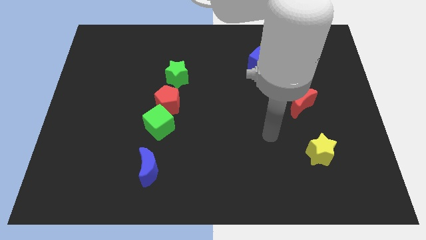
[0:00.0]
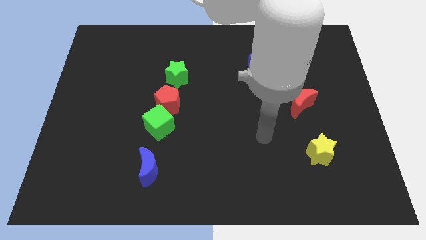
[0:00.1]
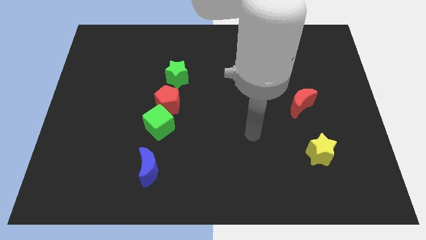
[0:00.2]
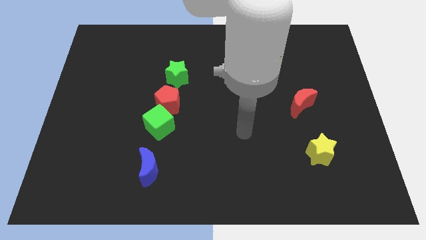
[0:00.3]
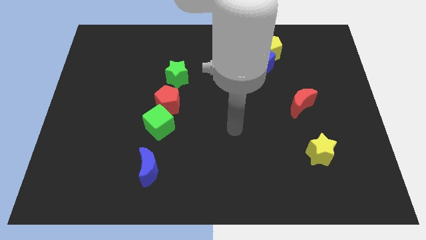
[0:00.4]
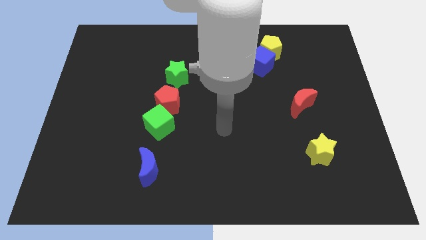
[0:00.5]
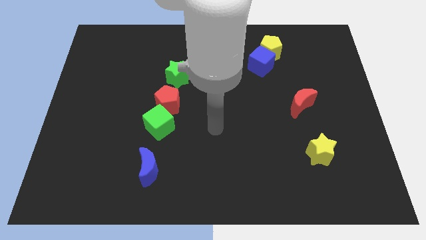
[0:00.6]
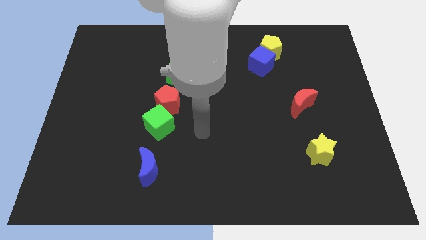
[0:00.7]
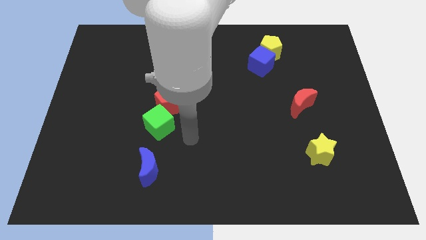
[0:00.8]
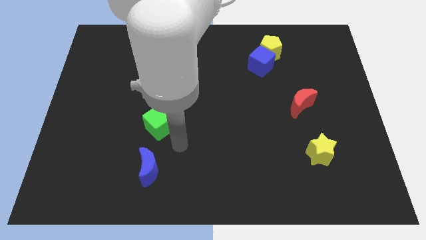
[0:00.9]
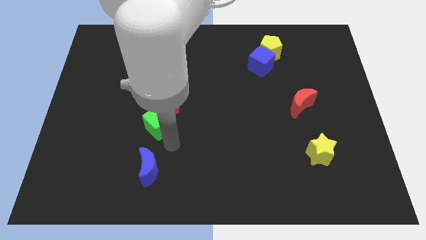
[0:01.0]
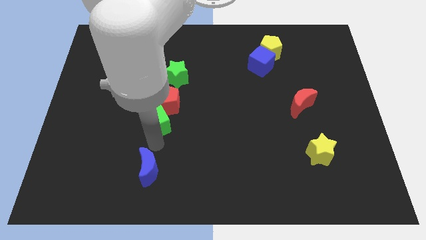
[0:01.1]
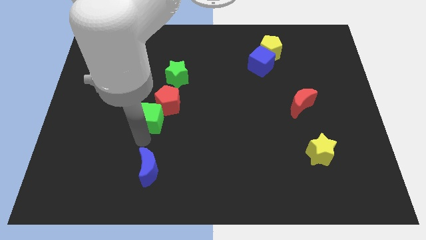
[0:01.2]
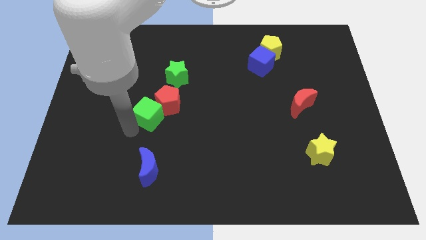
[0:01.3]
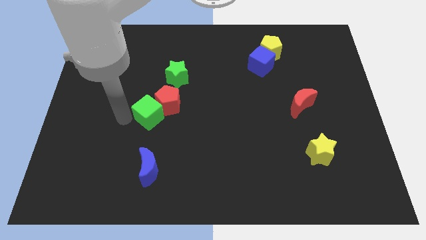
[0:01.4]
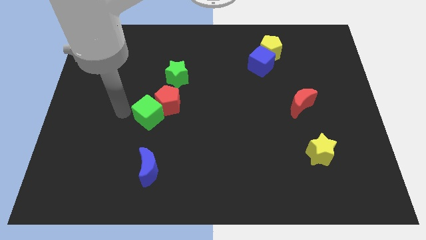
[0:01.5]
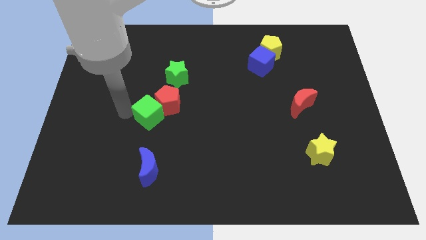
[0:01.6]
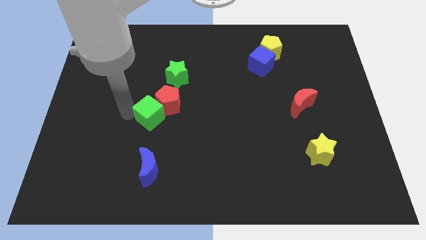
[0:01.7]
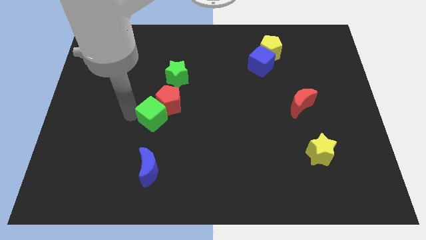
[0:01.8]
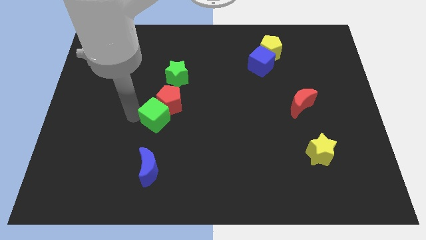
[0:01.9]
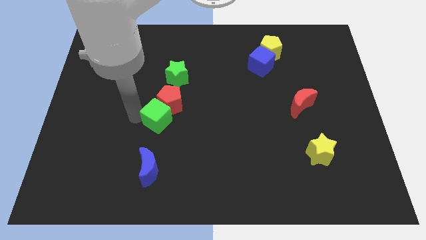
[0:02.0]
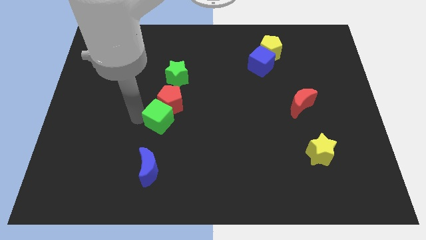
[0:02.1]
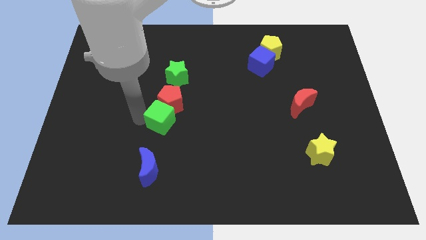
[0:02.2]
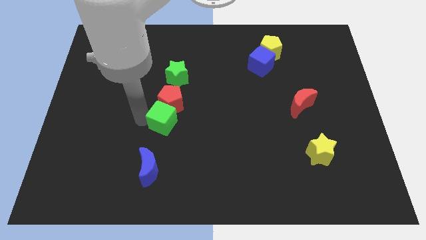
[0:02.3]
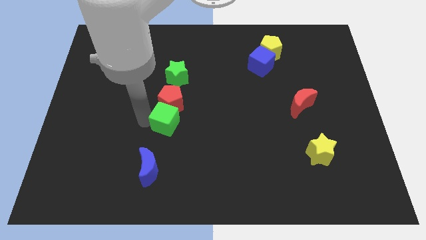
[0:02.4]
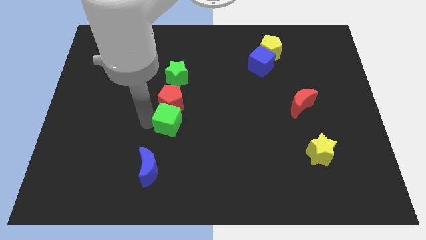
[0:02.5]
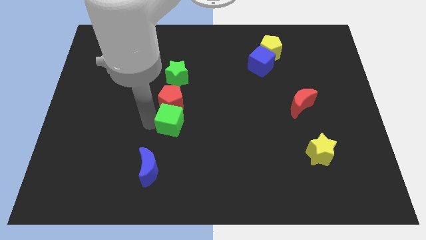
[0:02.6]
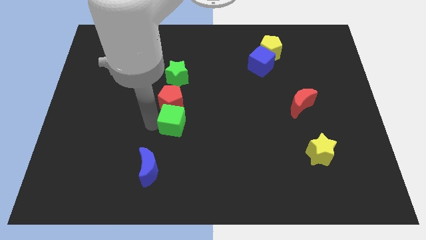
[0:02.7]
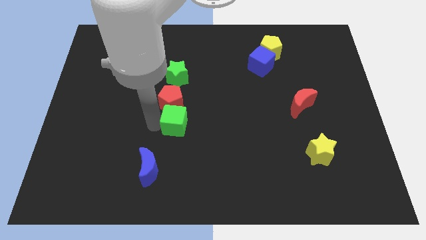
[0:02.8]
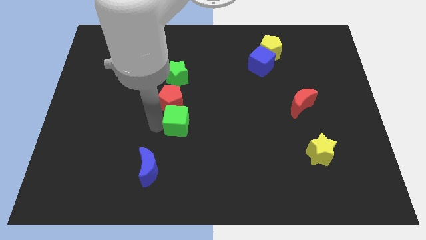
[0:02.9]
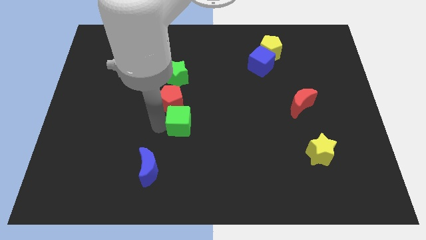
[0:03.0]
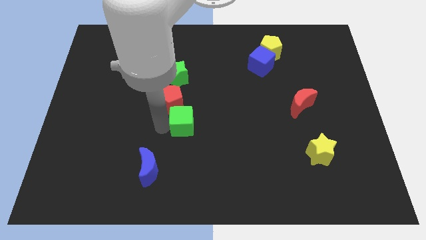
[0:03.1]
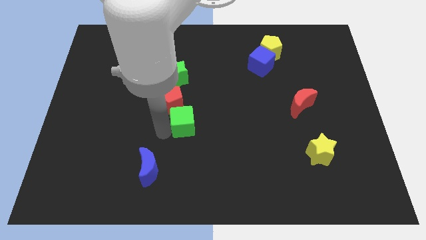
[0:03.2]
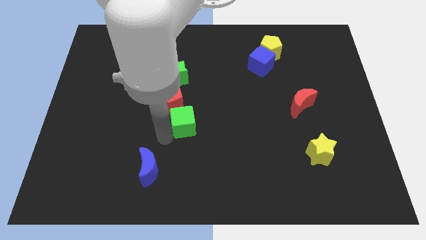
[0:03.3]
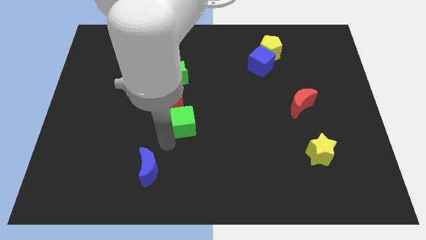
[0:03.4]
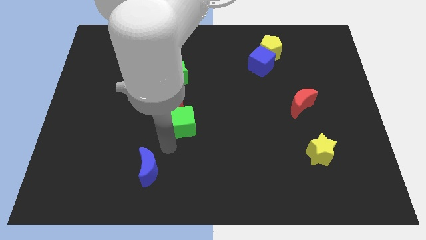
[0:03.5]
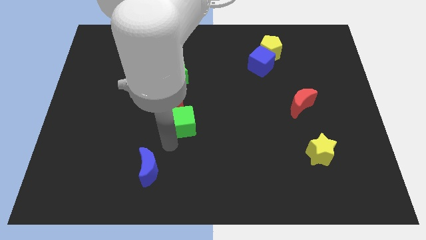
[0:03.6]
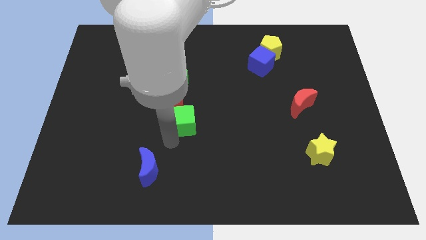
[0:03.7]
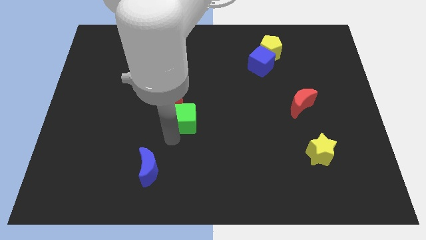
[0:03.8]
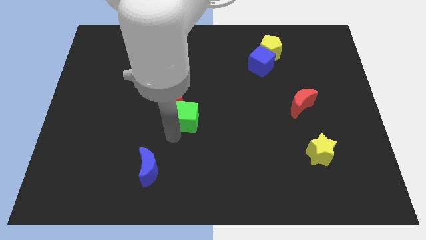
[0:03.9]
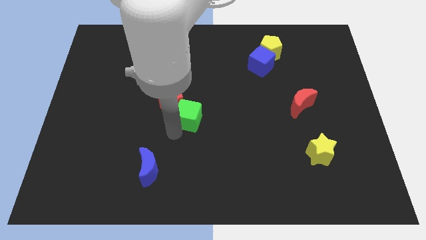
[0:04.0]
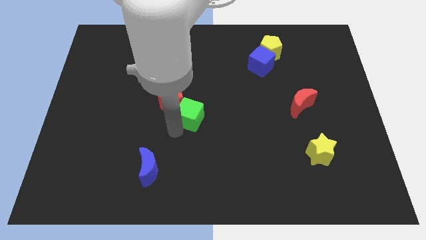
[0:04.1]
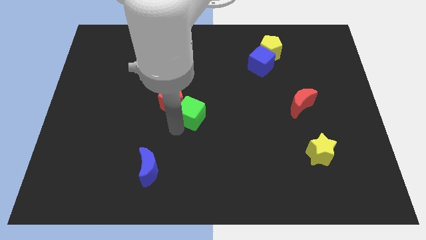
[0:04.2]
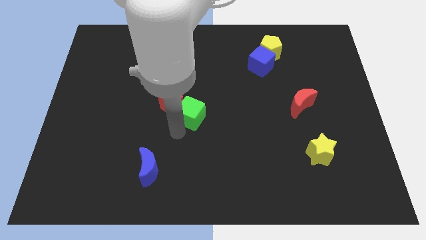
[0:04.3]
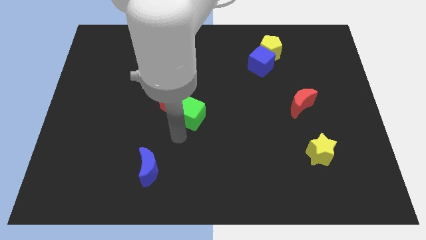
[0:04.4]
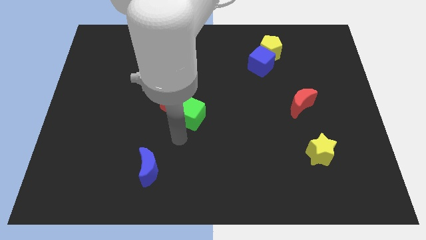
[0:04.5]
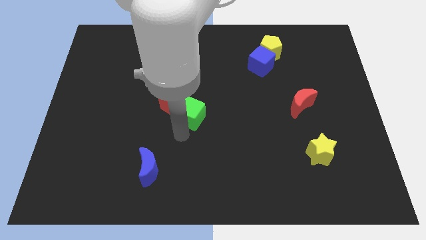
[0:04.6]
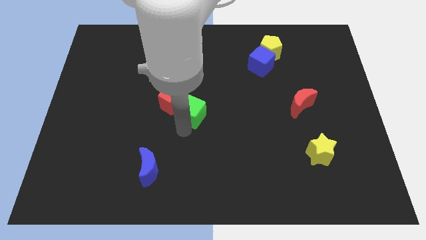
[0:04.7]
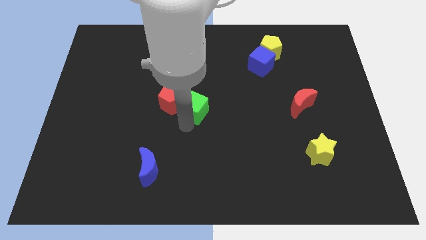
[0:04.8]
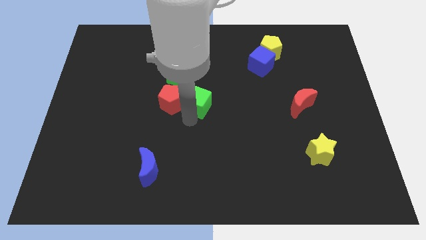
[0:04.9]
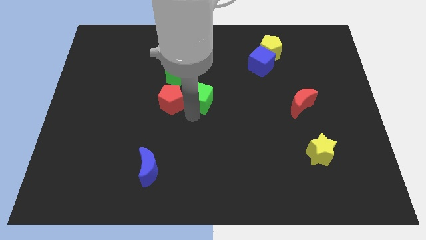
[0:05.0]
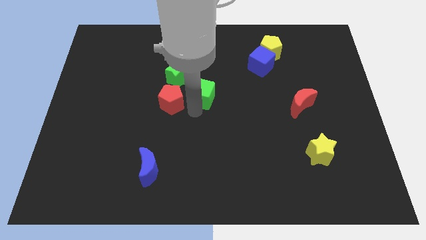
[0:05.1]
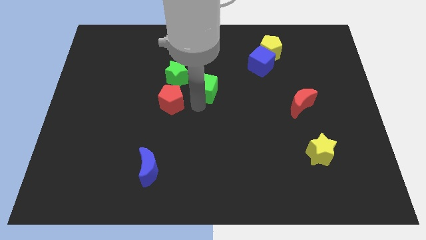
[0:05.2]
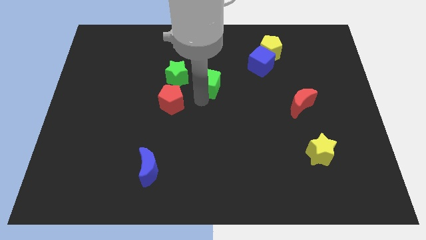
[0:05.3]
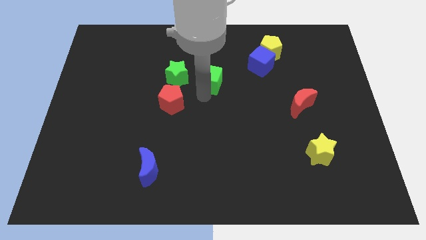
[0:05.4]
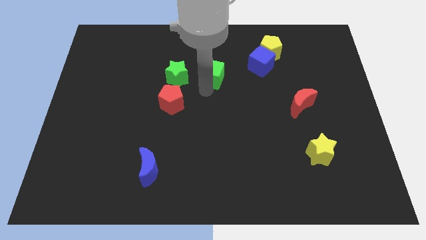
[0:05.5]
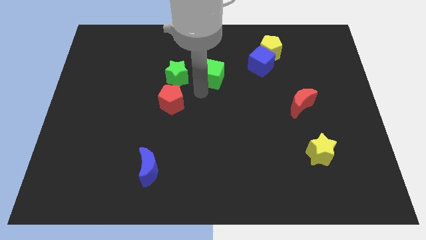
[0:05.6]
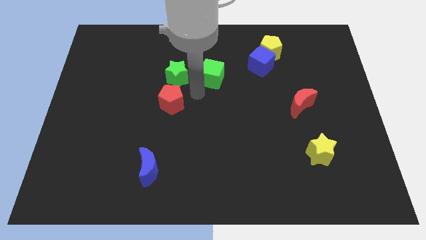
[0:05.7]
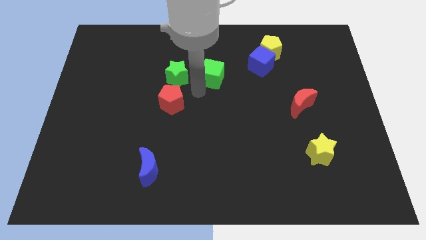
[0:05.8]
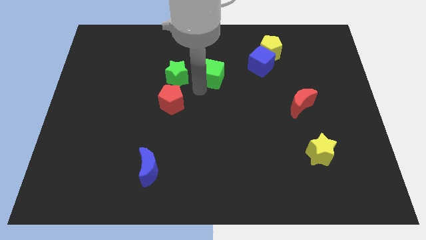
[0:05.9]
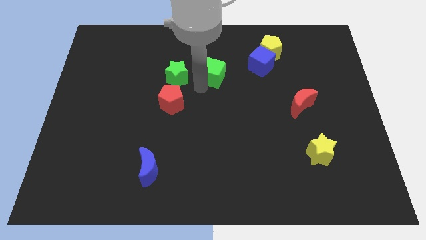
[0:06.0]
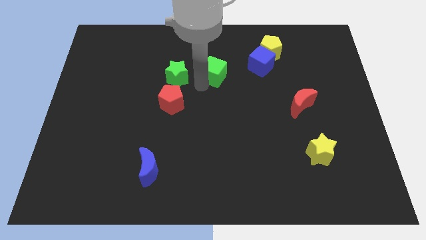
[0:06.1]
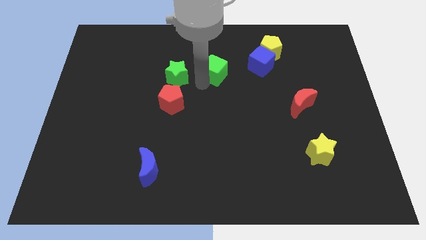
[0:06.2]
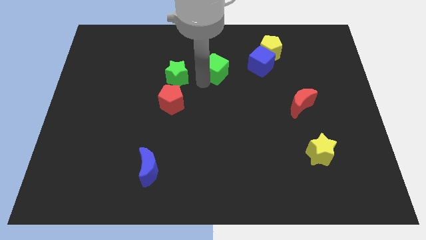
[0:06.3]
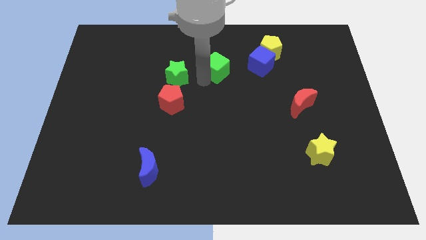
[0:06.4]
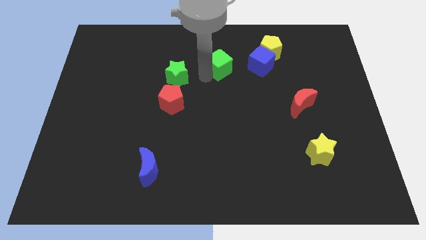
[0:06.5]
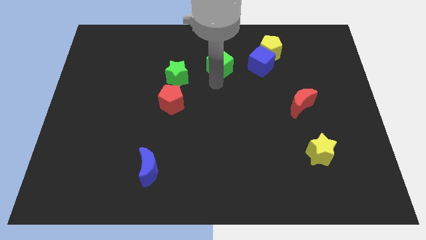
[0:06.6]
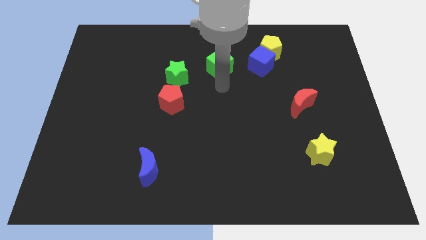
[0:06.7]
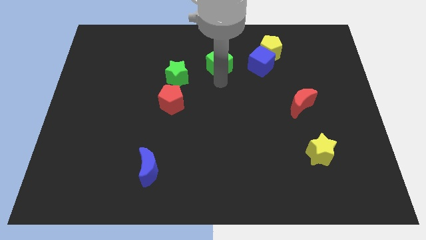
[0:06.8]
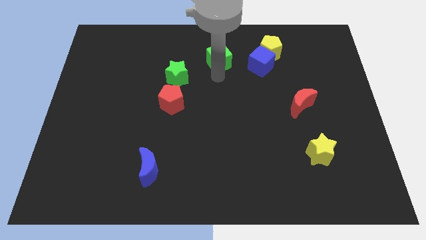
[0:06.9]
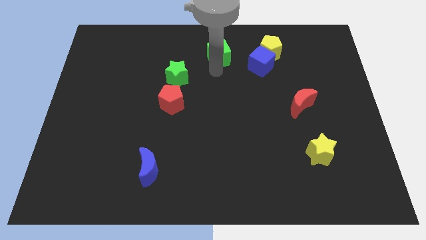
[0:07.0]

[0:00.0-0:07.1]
push the green cube to the towards your base

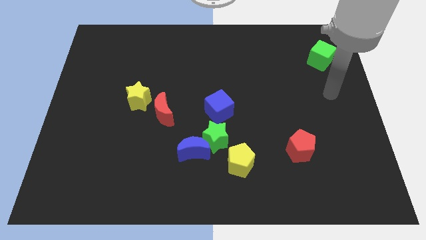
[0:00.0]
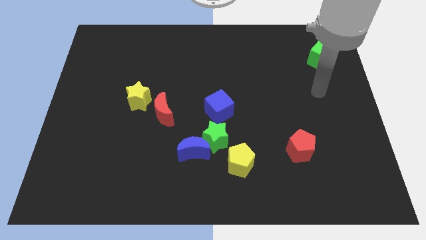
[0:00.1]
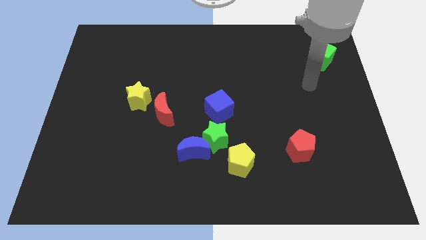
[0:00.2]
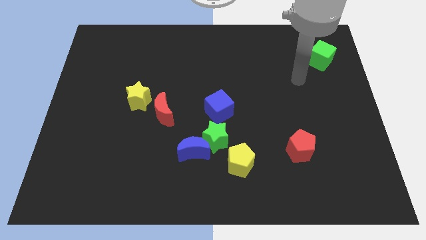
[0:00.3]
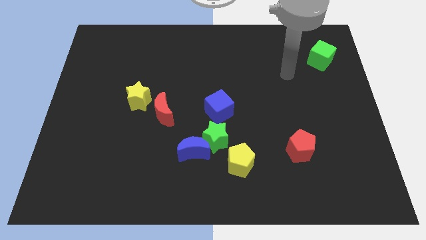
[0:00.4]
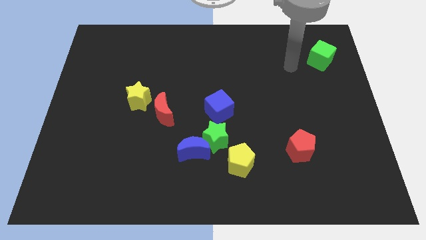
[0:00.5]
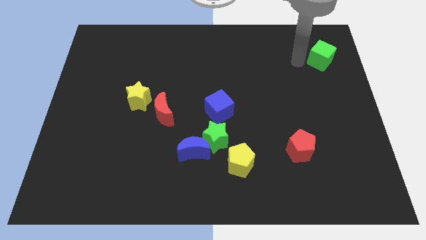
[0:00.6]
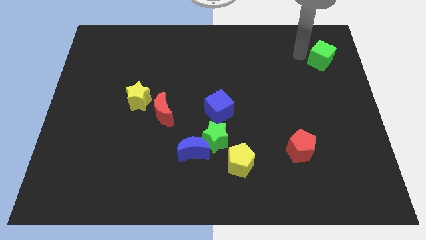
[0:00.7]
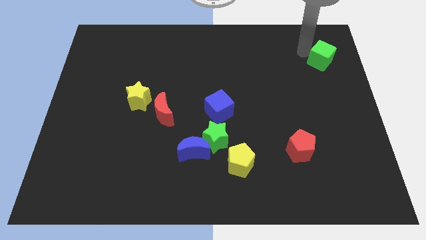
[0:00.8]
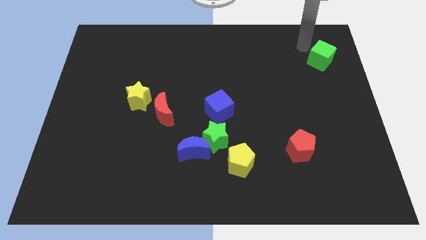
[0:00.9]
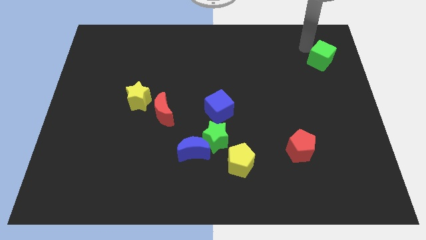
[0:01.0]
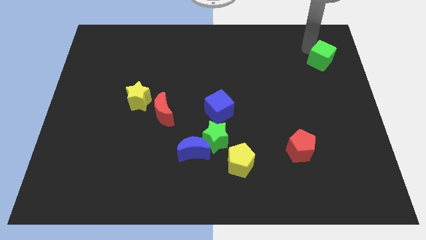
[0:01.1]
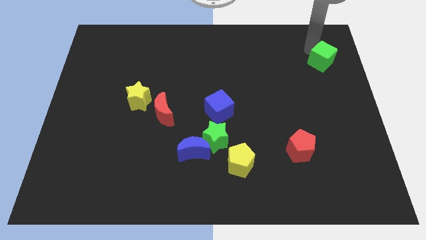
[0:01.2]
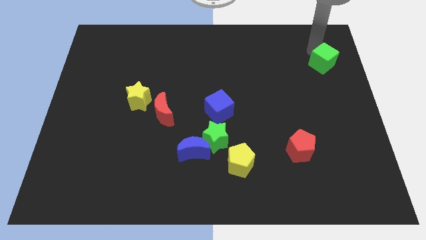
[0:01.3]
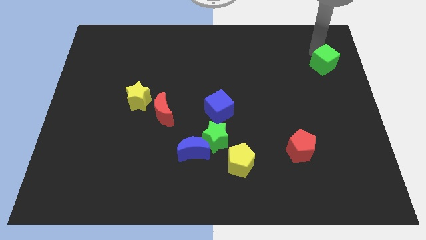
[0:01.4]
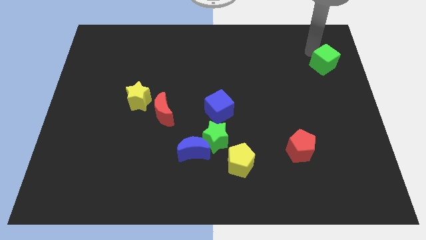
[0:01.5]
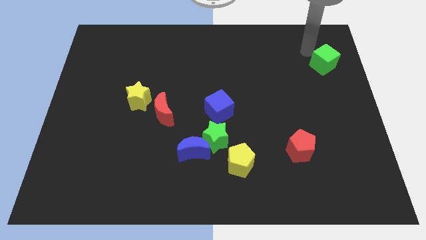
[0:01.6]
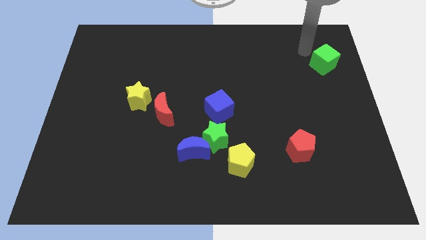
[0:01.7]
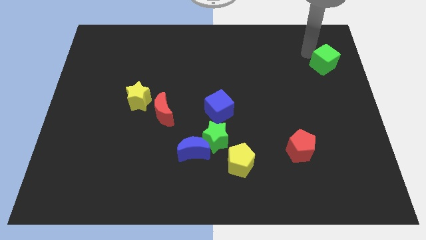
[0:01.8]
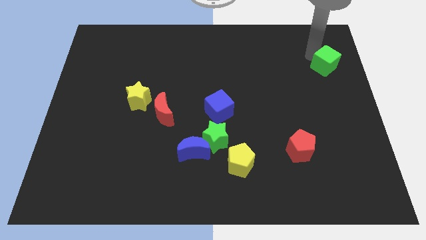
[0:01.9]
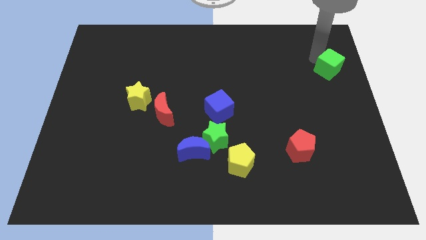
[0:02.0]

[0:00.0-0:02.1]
put the green cube to the center right
